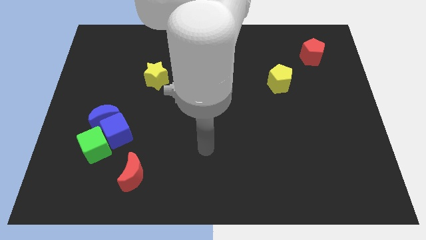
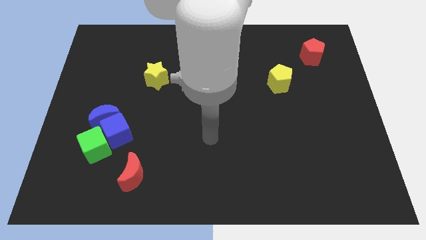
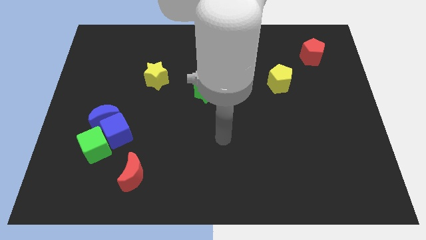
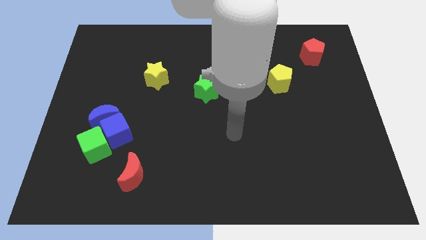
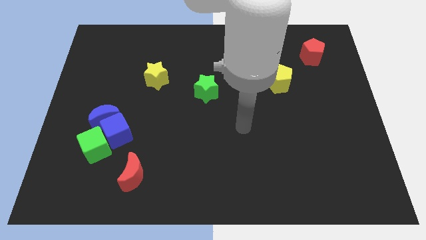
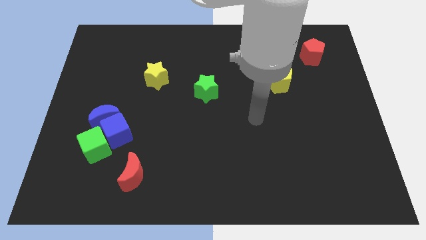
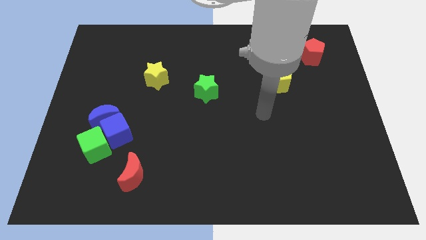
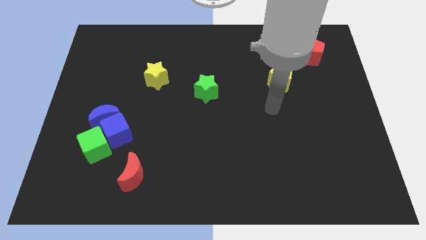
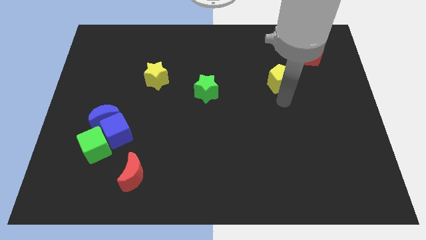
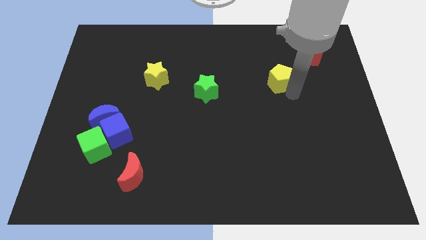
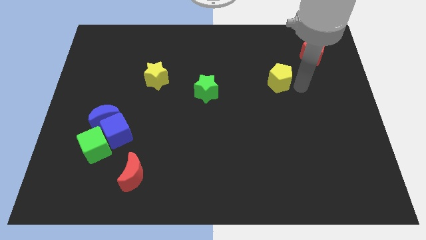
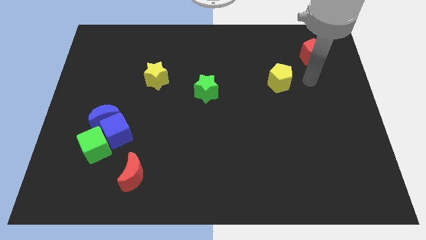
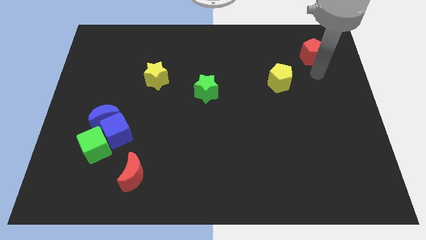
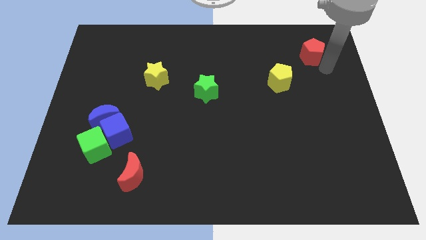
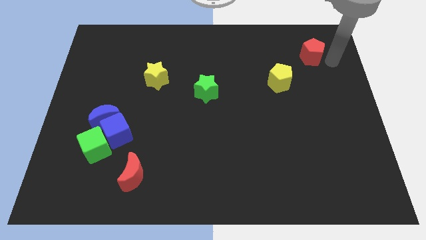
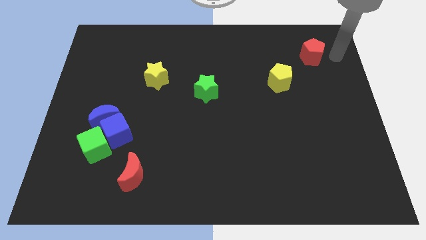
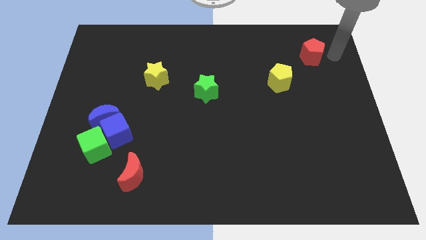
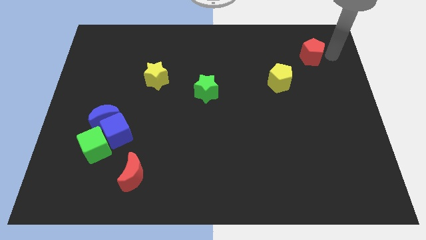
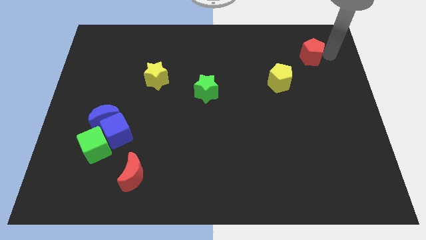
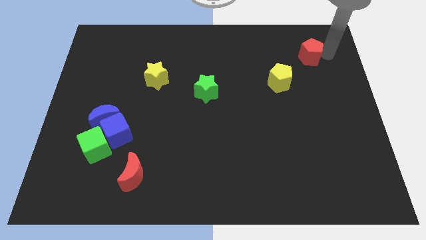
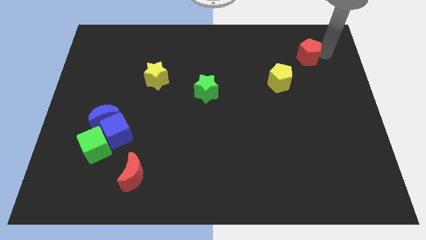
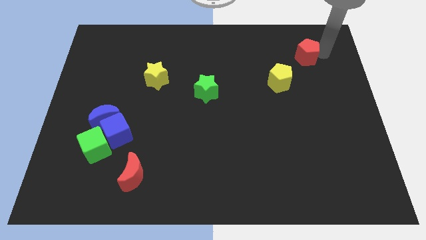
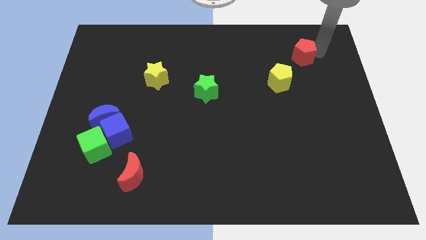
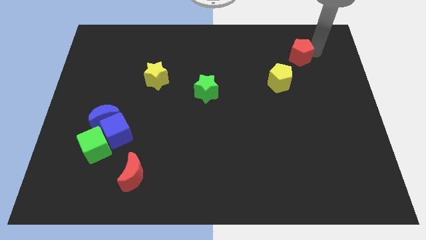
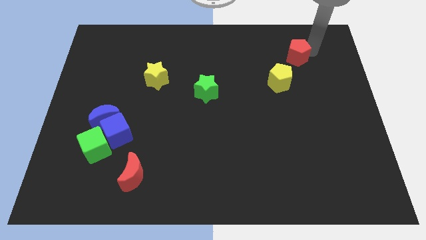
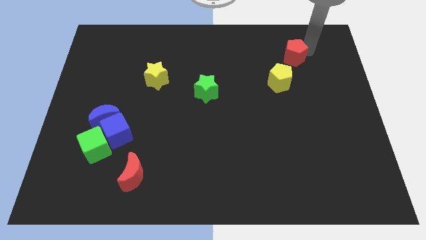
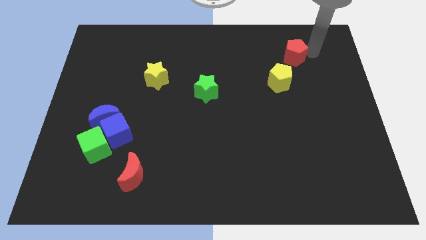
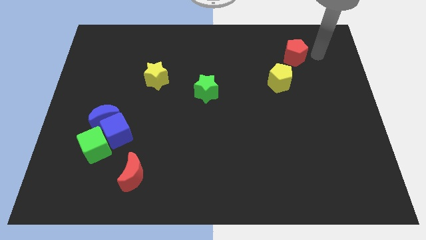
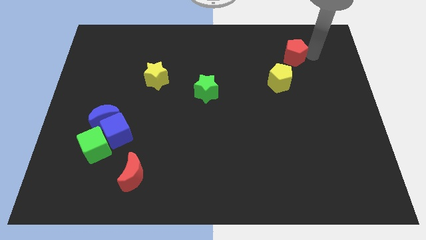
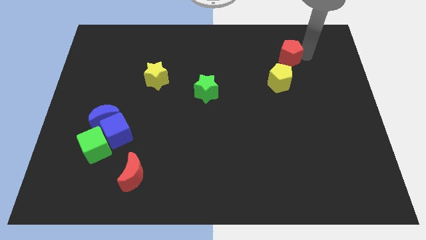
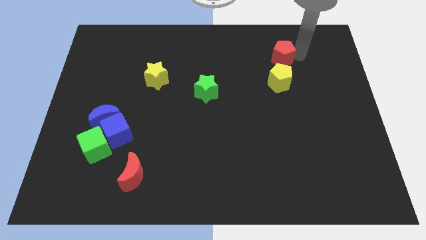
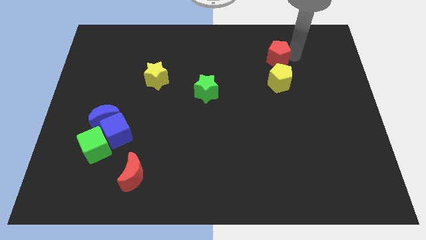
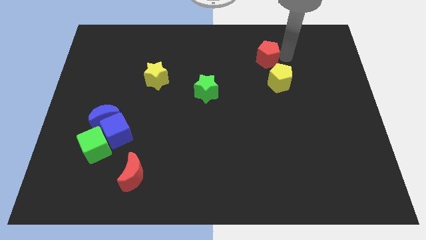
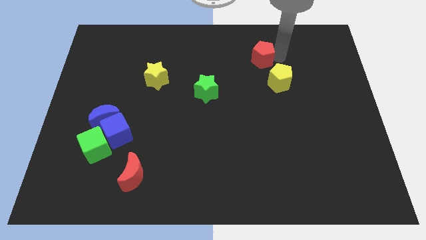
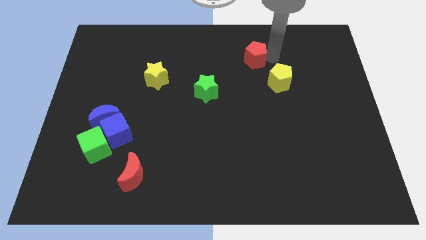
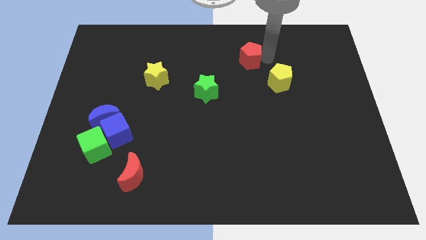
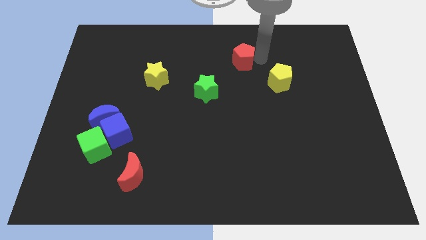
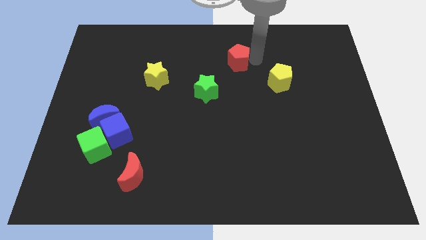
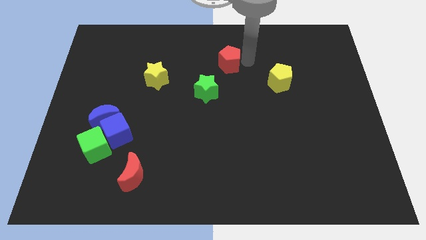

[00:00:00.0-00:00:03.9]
push the red pentagon to the left

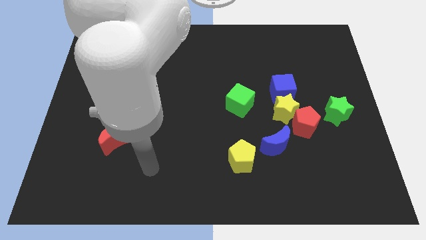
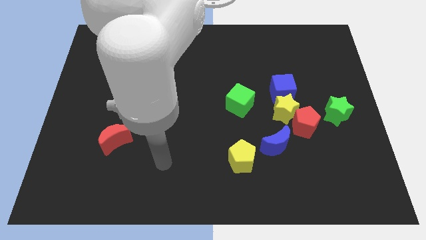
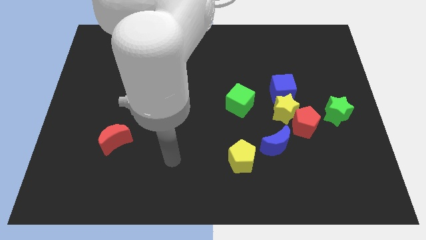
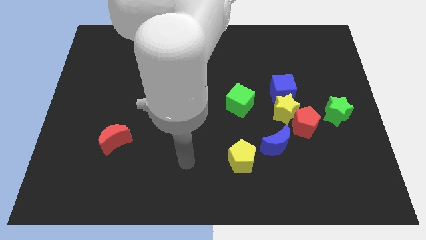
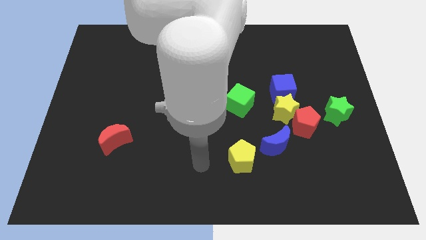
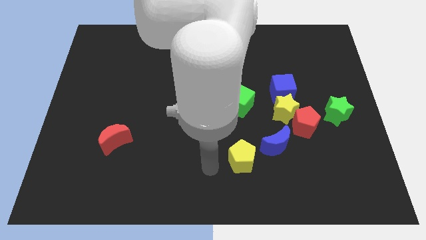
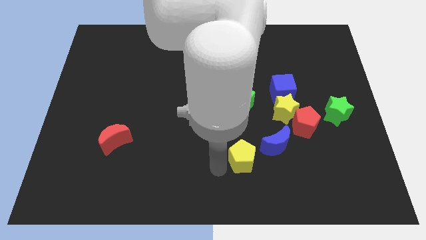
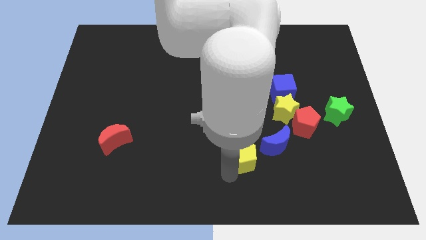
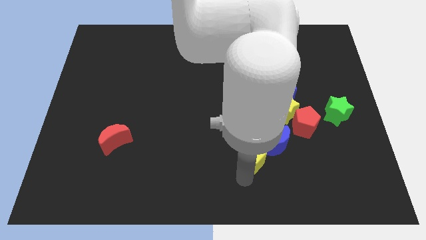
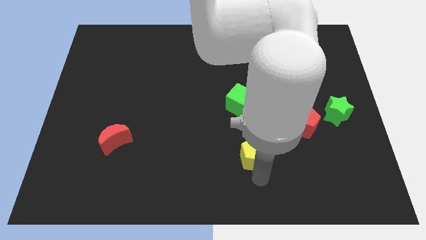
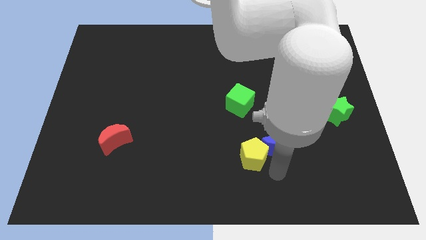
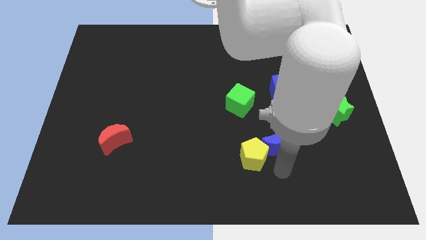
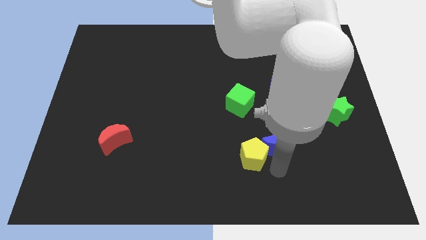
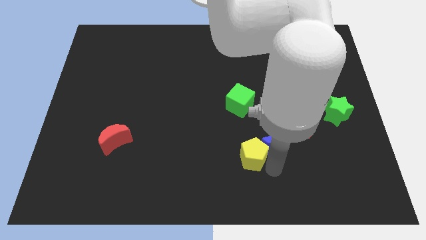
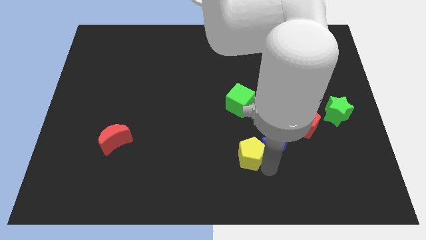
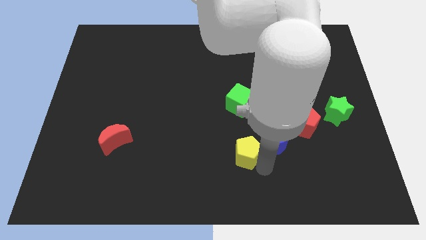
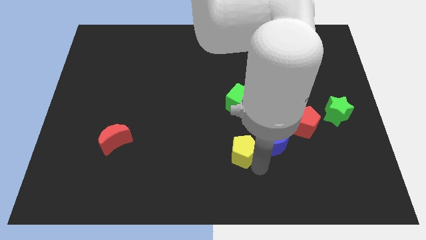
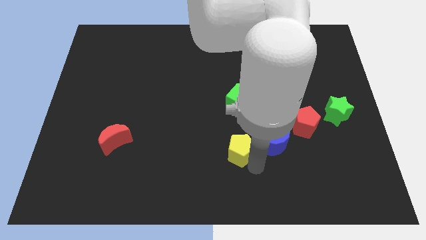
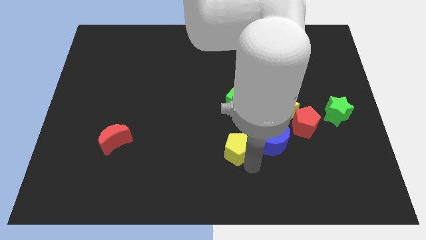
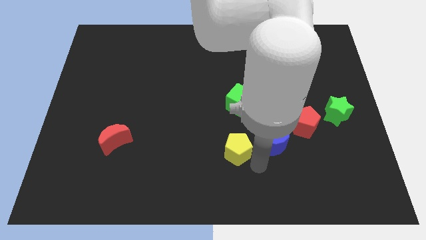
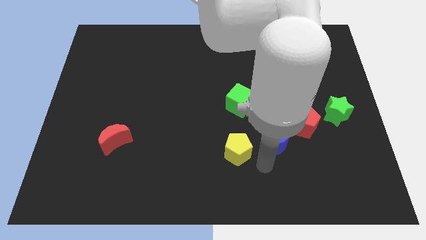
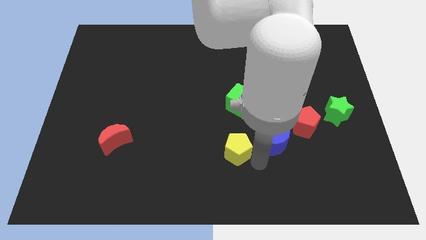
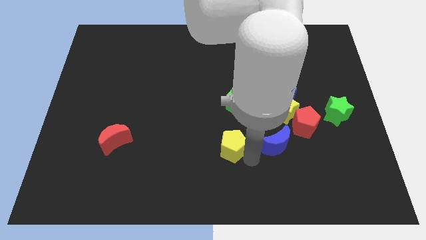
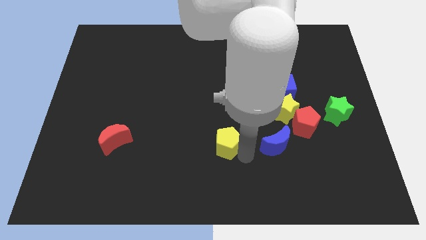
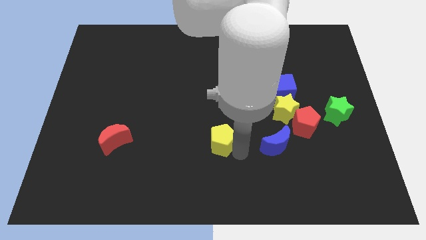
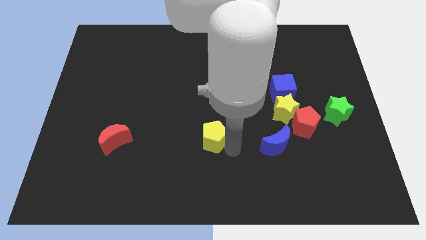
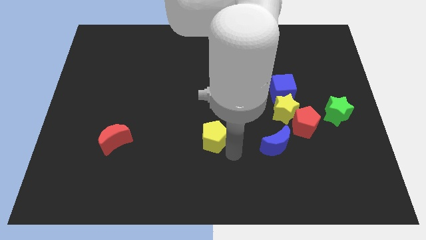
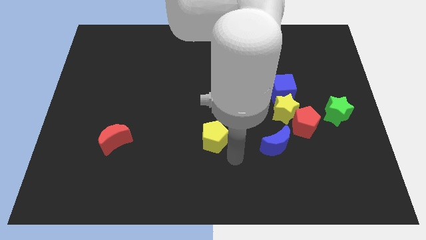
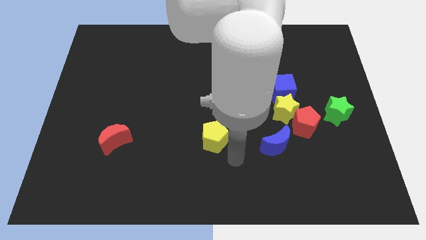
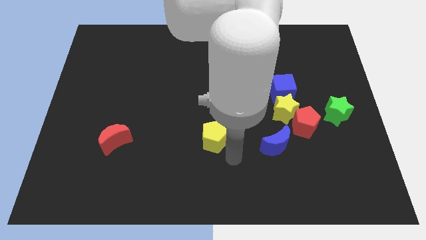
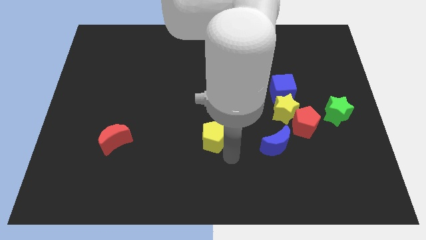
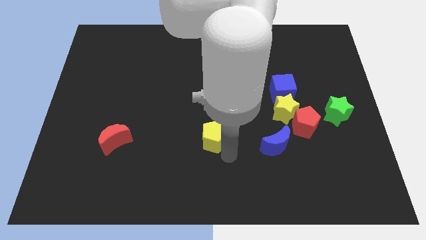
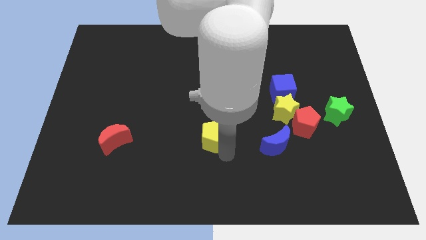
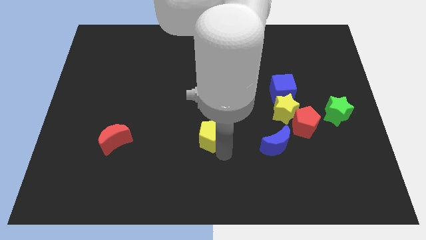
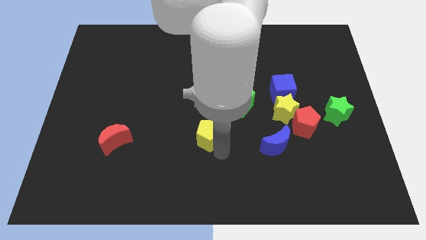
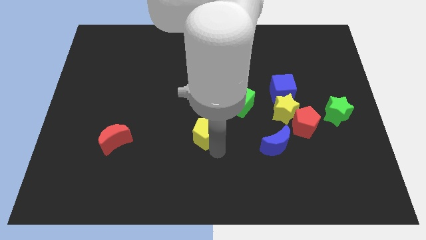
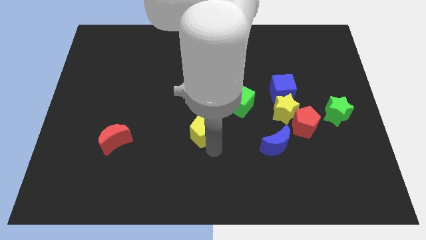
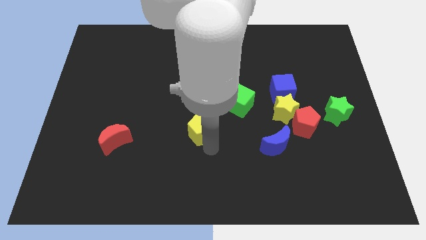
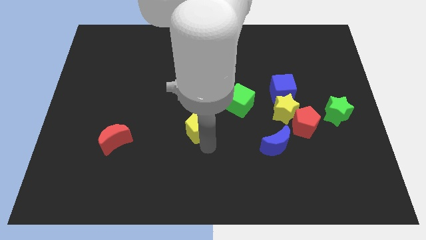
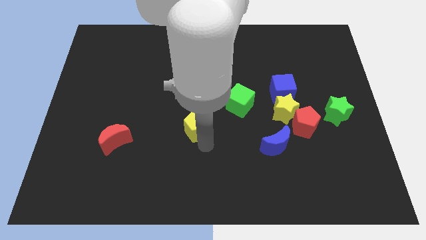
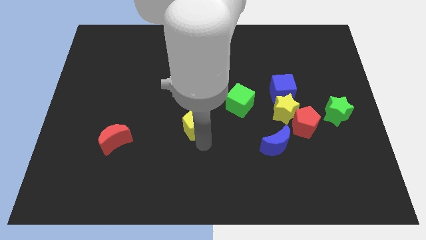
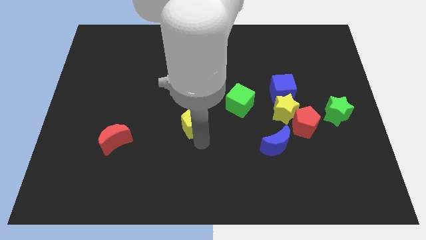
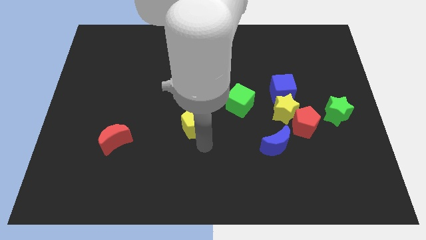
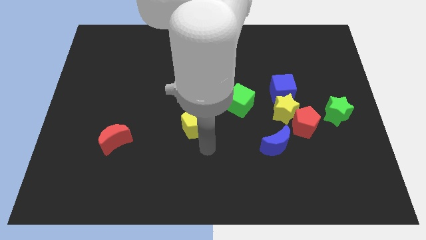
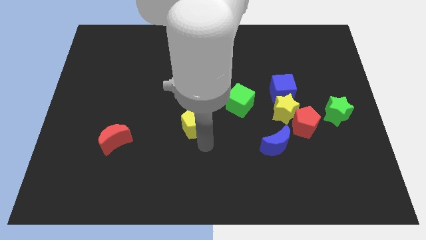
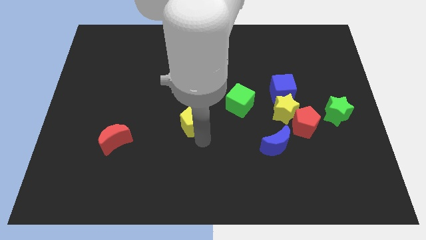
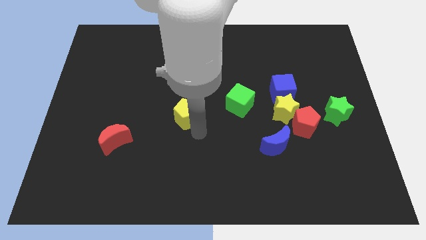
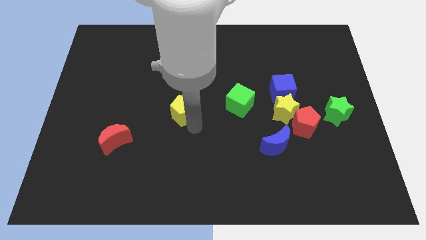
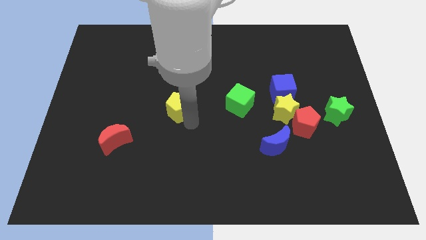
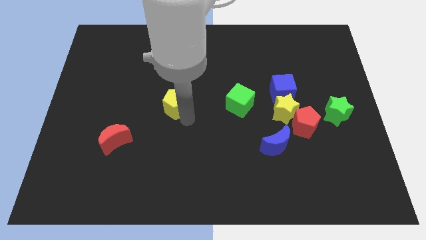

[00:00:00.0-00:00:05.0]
push the yellow pentagon upwards and left
